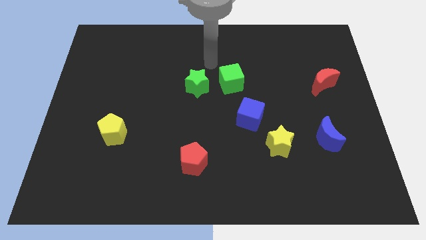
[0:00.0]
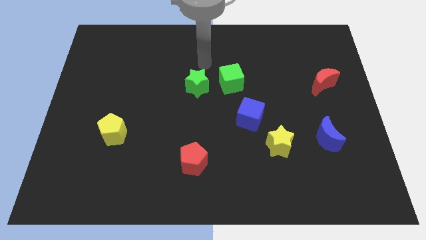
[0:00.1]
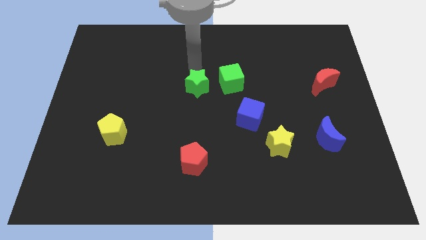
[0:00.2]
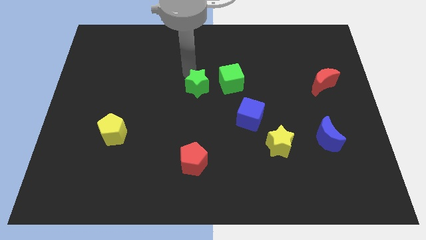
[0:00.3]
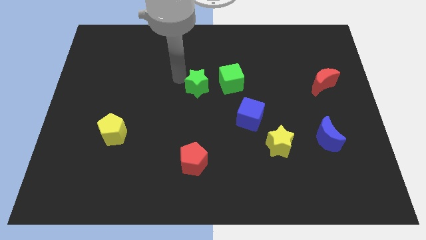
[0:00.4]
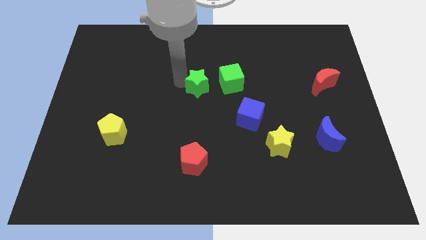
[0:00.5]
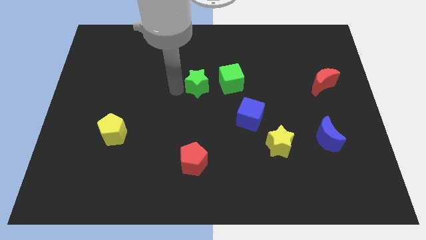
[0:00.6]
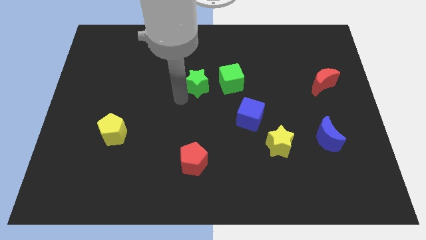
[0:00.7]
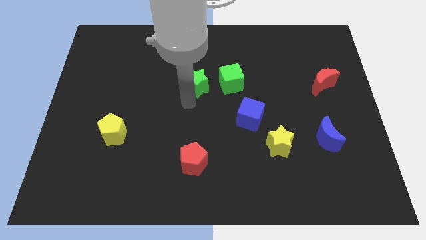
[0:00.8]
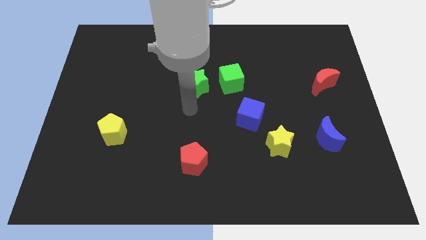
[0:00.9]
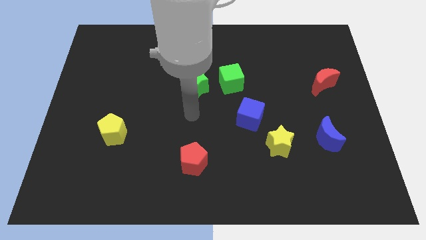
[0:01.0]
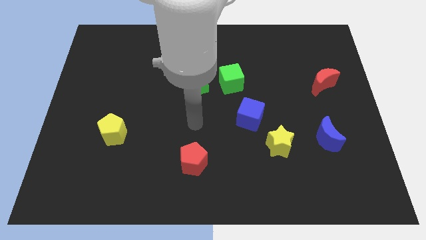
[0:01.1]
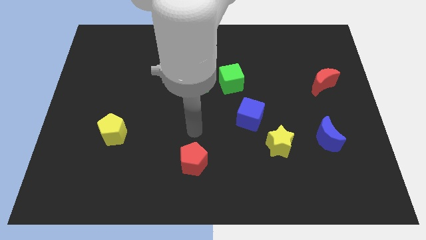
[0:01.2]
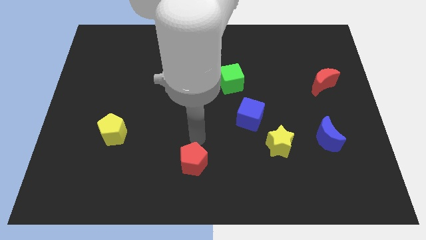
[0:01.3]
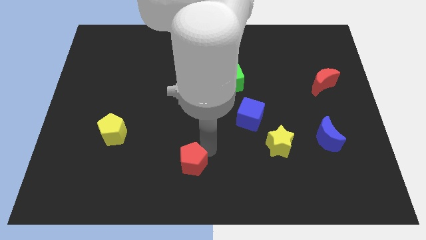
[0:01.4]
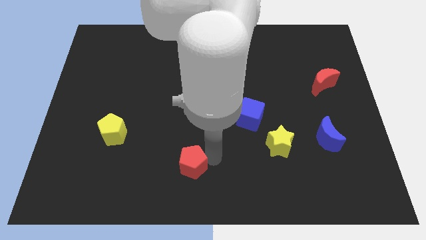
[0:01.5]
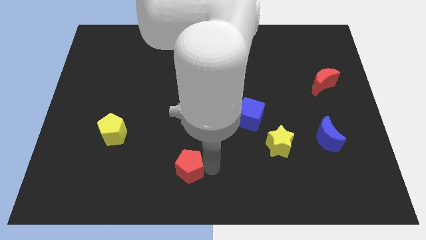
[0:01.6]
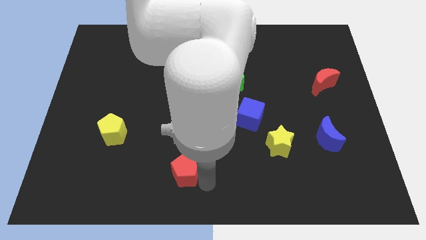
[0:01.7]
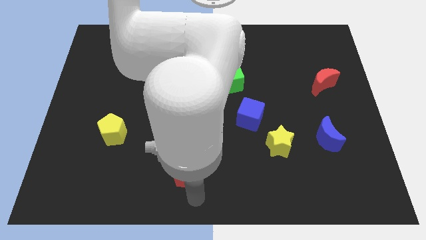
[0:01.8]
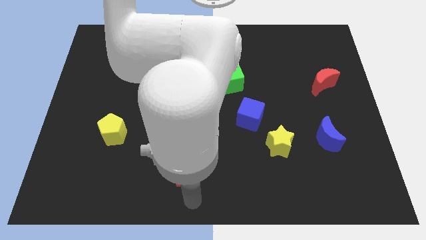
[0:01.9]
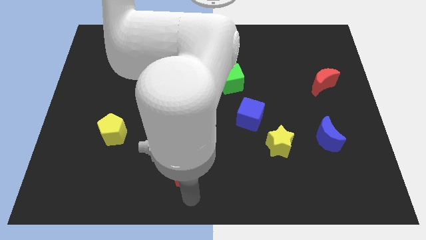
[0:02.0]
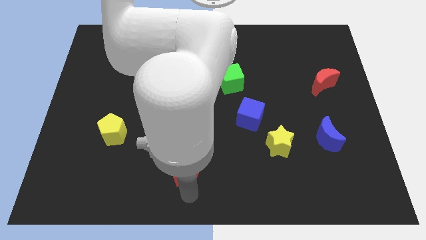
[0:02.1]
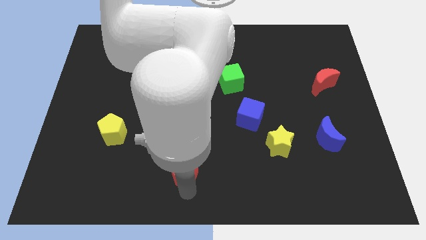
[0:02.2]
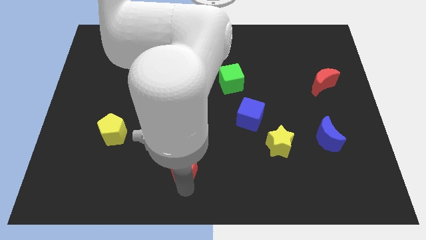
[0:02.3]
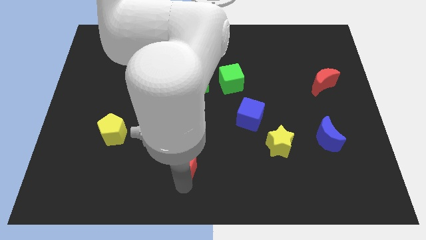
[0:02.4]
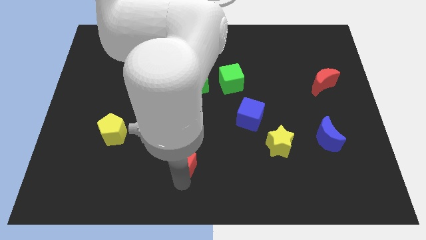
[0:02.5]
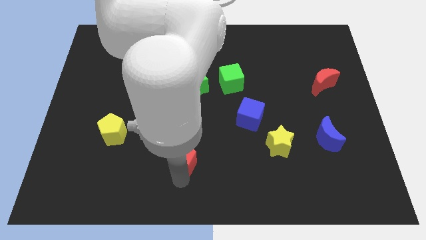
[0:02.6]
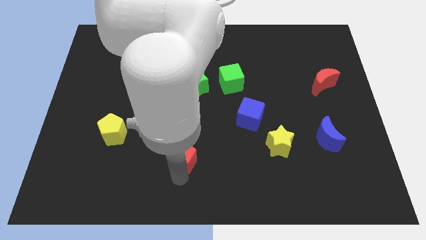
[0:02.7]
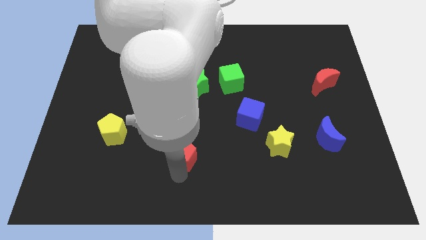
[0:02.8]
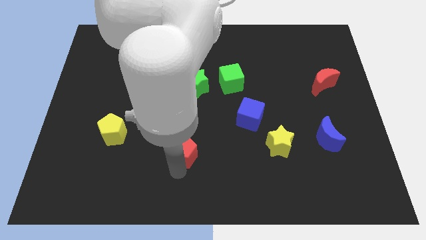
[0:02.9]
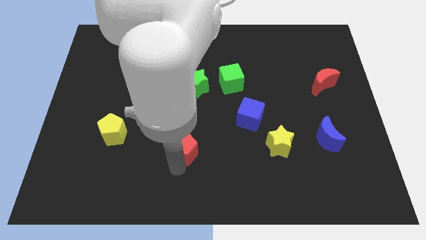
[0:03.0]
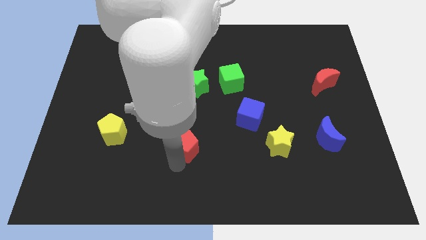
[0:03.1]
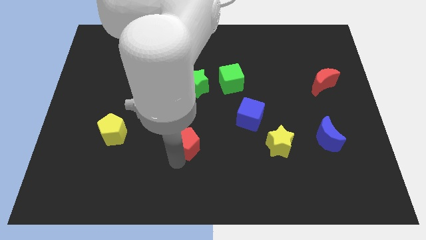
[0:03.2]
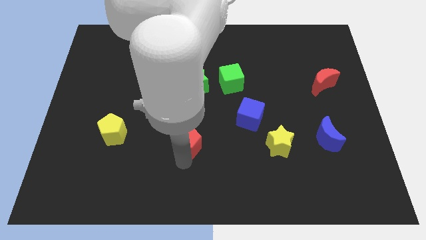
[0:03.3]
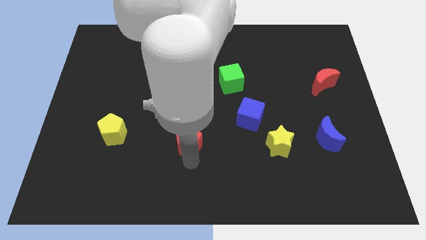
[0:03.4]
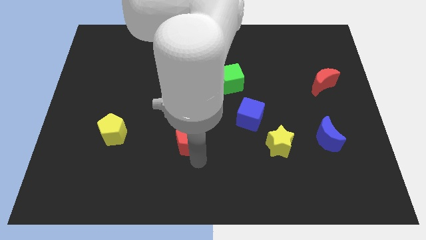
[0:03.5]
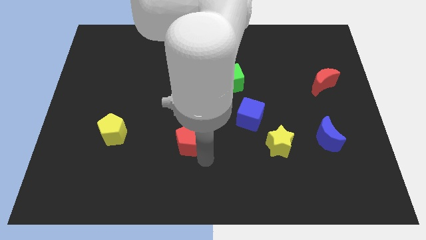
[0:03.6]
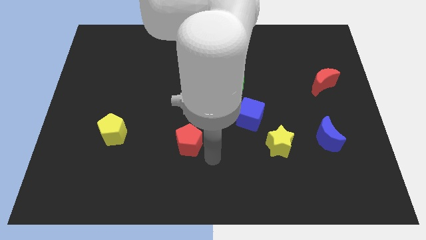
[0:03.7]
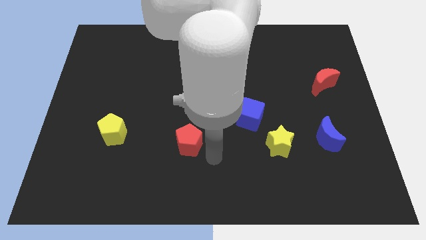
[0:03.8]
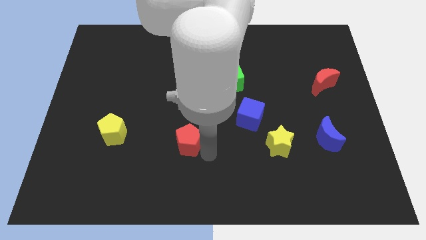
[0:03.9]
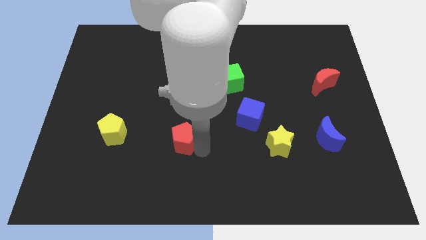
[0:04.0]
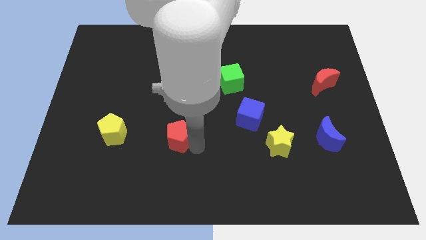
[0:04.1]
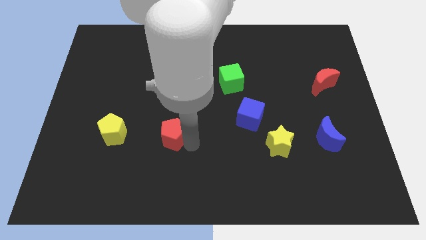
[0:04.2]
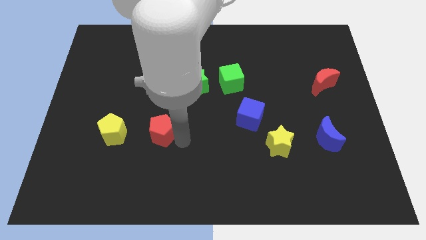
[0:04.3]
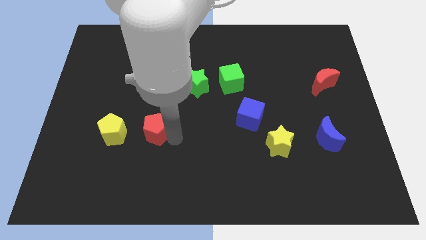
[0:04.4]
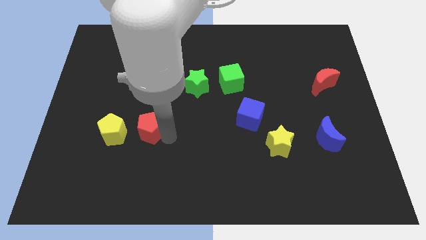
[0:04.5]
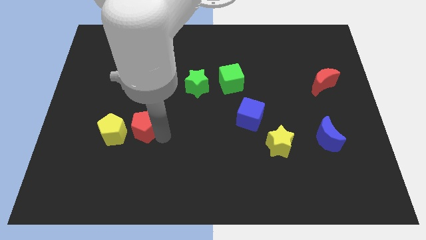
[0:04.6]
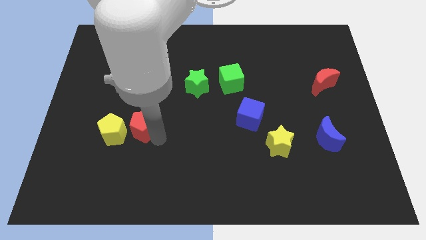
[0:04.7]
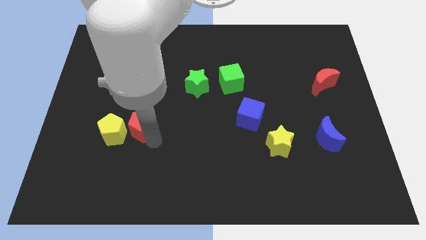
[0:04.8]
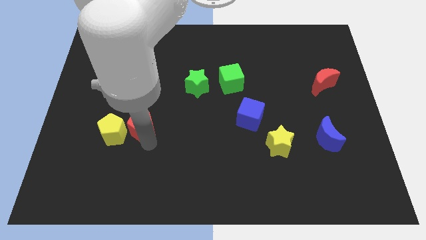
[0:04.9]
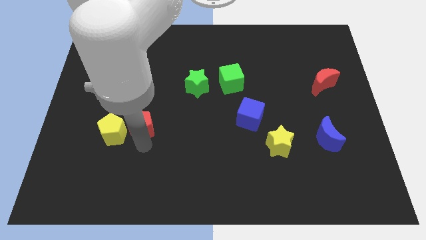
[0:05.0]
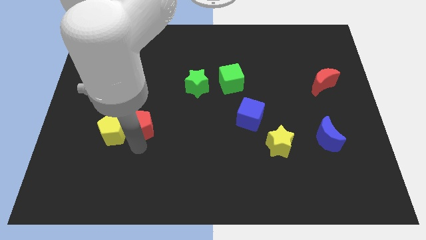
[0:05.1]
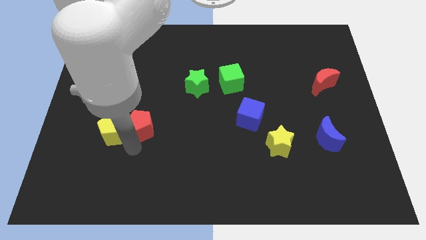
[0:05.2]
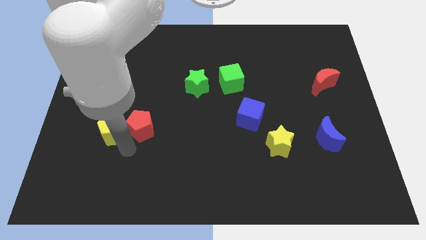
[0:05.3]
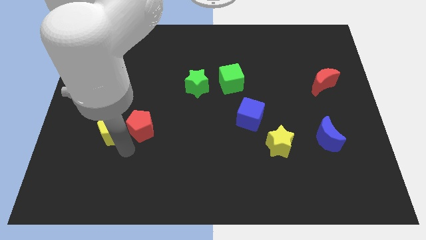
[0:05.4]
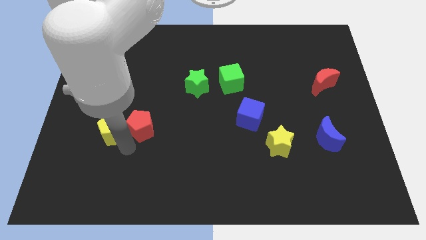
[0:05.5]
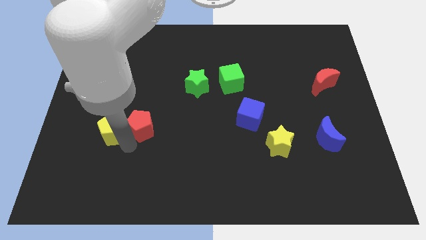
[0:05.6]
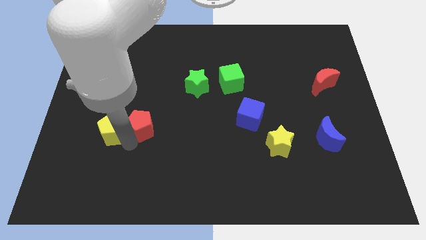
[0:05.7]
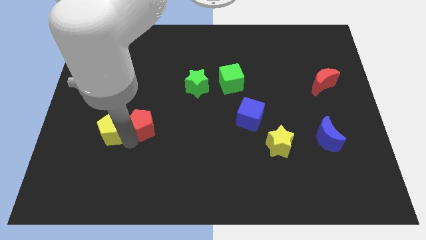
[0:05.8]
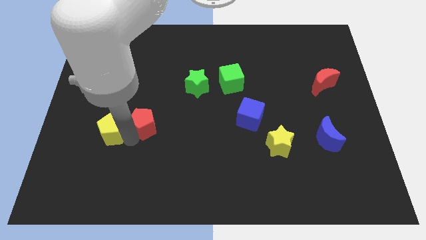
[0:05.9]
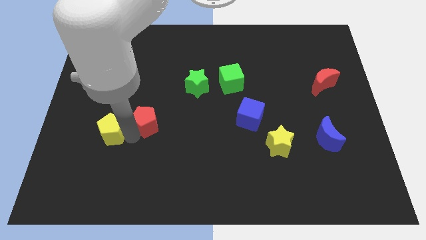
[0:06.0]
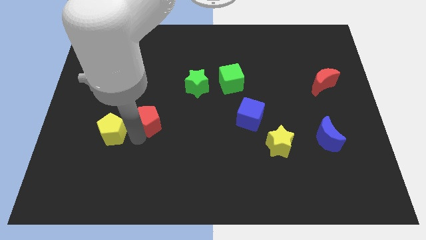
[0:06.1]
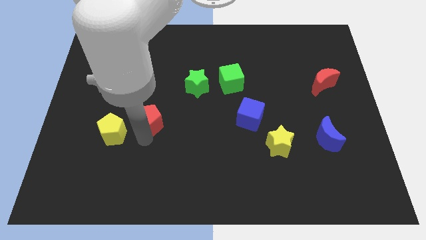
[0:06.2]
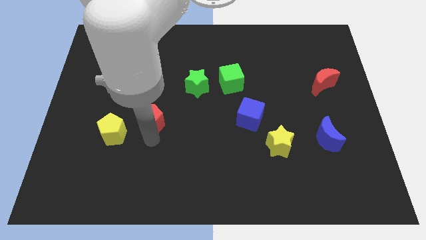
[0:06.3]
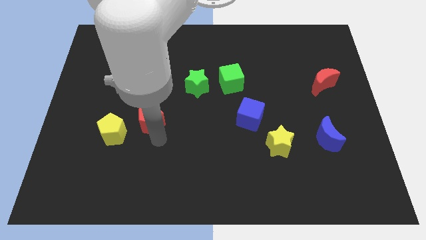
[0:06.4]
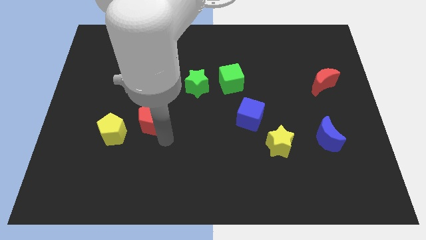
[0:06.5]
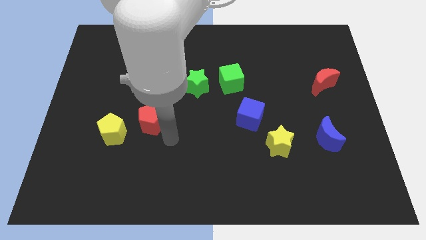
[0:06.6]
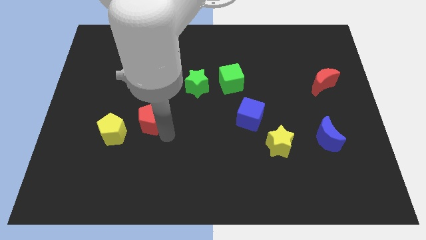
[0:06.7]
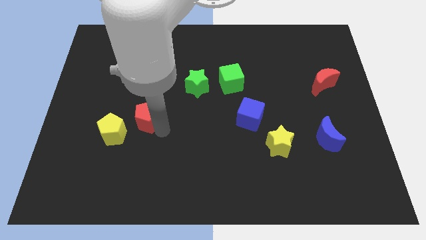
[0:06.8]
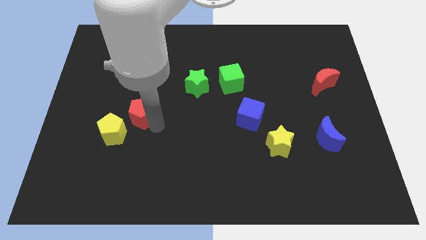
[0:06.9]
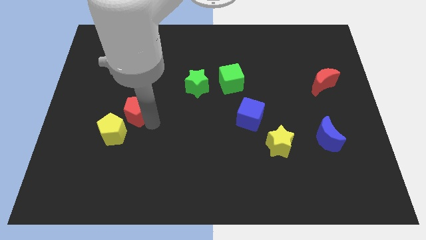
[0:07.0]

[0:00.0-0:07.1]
move the red pentagon to the top side of the yellow pentagon
